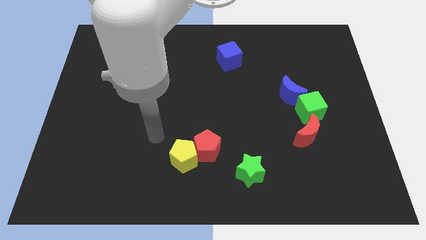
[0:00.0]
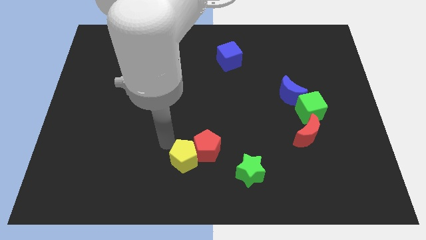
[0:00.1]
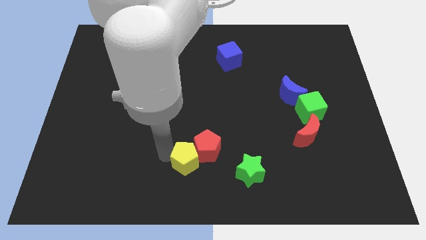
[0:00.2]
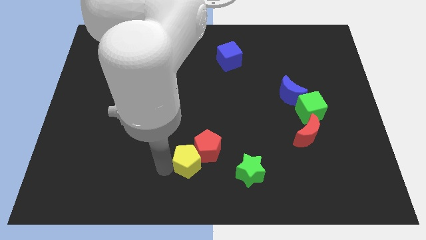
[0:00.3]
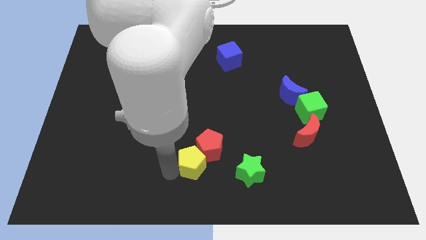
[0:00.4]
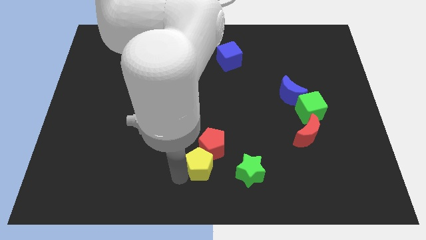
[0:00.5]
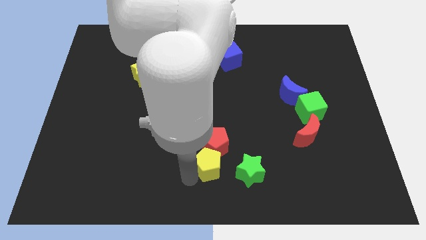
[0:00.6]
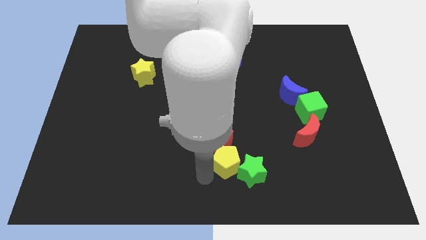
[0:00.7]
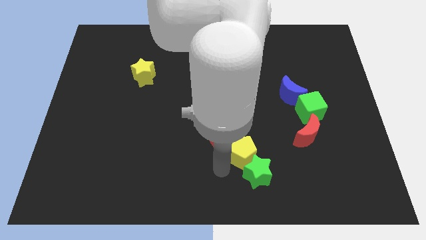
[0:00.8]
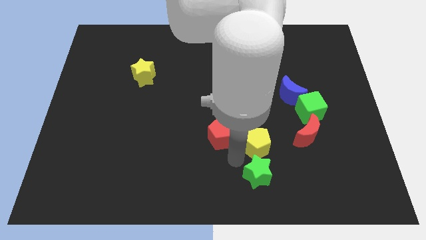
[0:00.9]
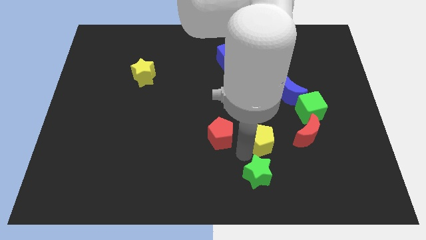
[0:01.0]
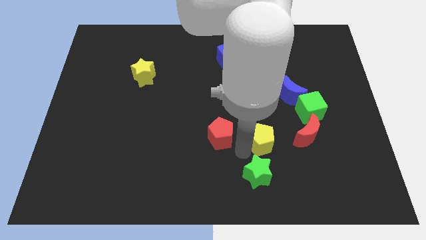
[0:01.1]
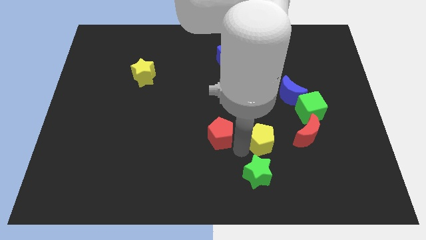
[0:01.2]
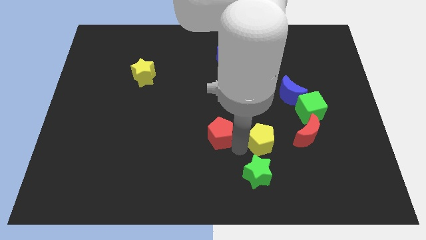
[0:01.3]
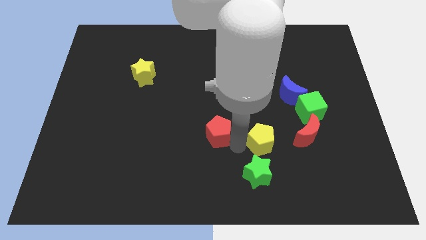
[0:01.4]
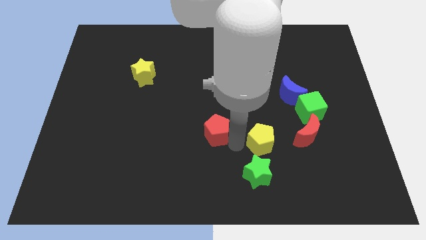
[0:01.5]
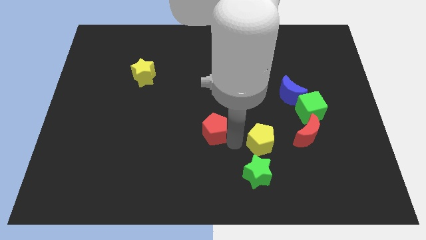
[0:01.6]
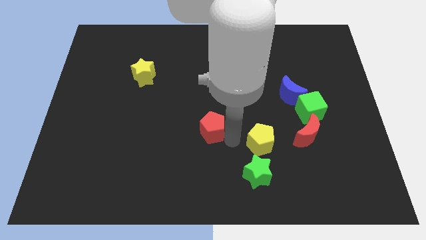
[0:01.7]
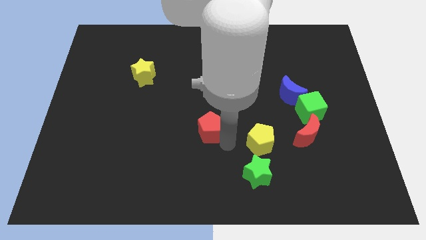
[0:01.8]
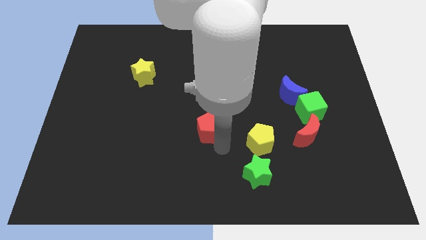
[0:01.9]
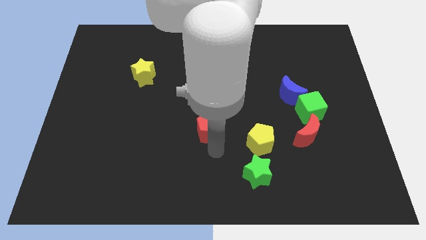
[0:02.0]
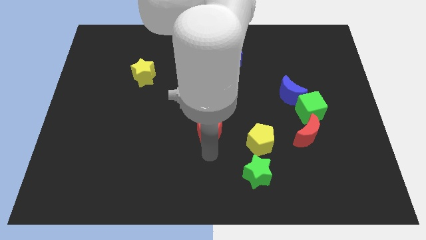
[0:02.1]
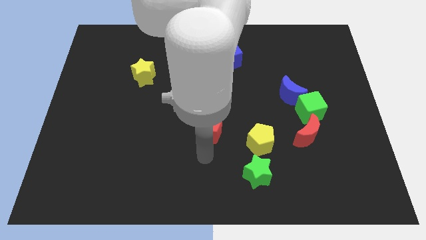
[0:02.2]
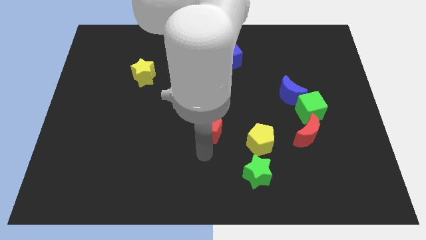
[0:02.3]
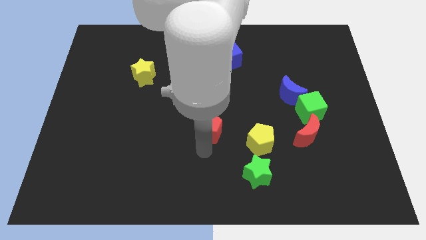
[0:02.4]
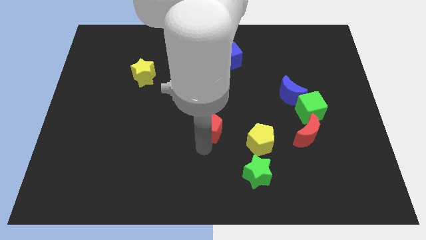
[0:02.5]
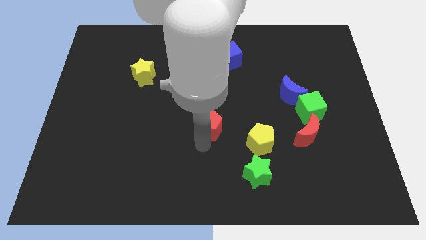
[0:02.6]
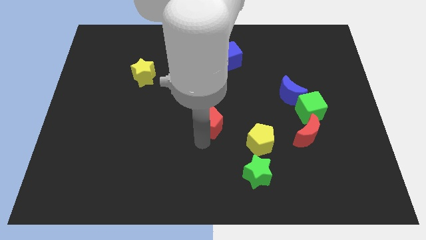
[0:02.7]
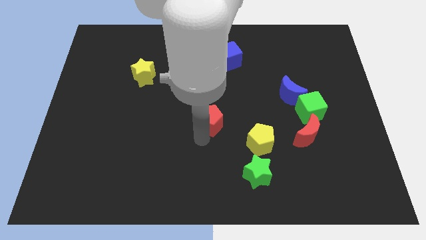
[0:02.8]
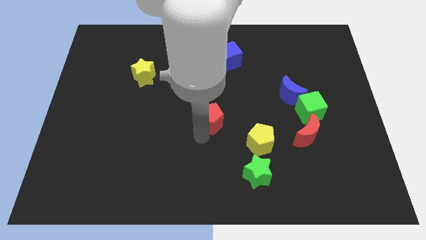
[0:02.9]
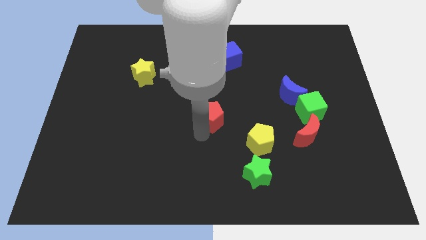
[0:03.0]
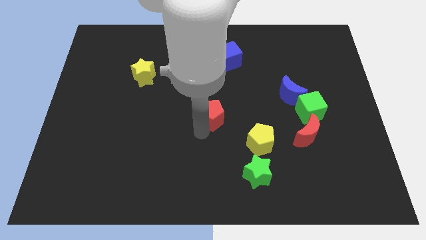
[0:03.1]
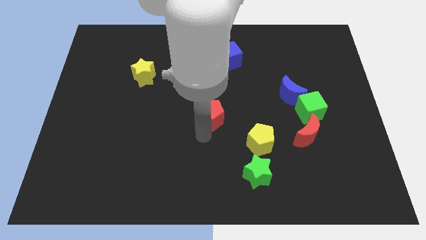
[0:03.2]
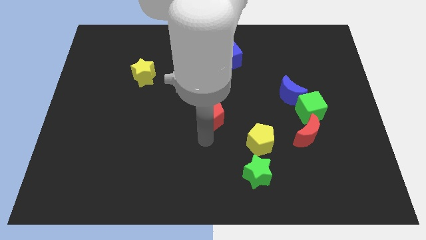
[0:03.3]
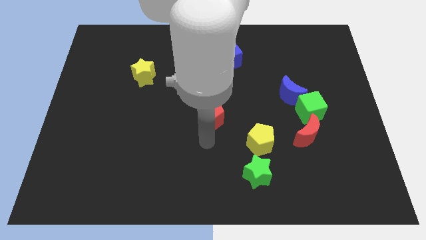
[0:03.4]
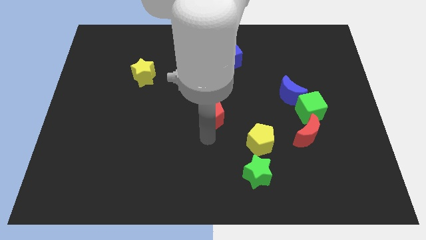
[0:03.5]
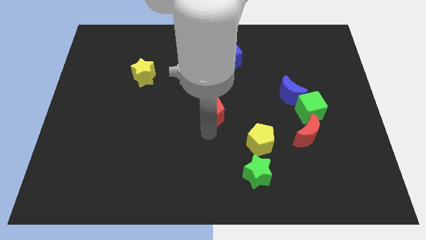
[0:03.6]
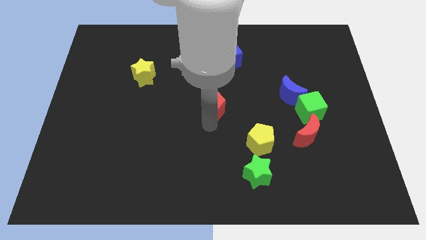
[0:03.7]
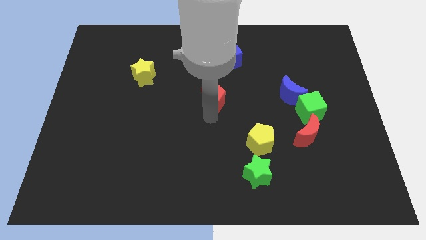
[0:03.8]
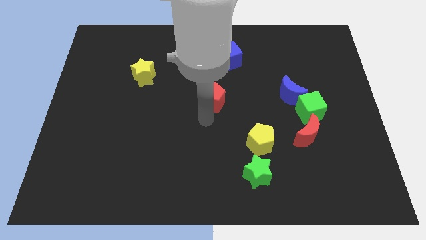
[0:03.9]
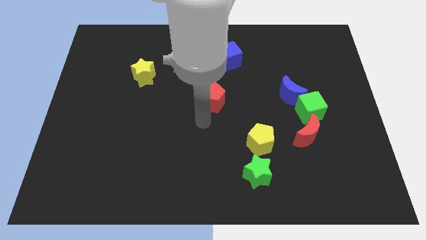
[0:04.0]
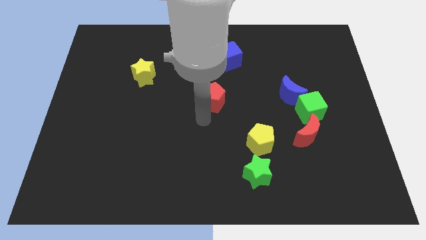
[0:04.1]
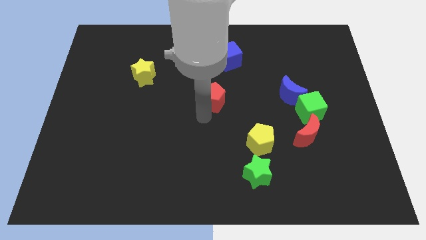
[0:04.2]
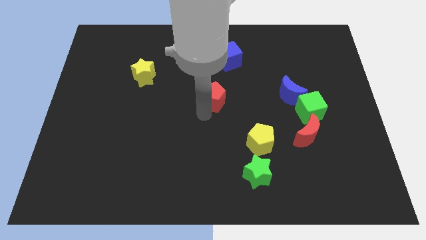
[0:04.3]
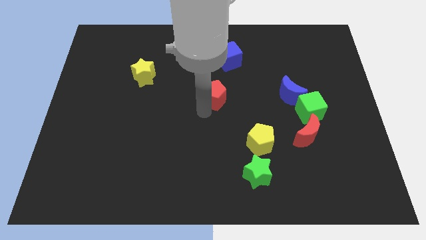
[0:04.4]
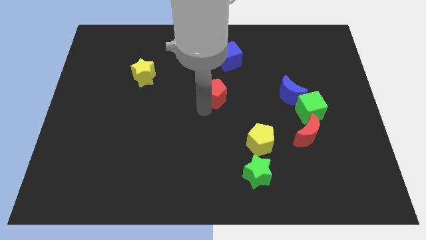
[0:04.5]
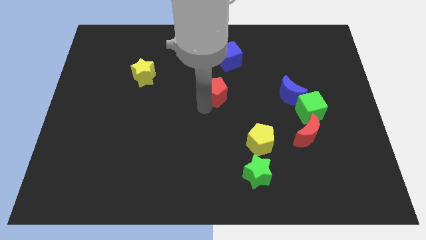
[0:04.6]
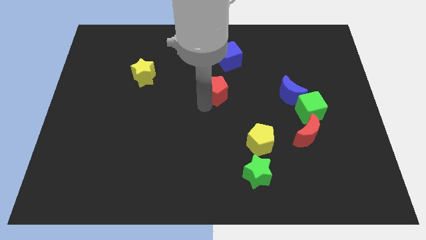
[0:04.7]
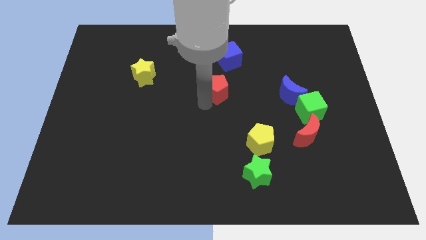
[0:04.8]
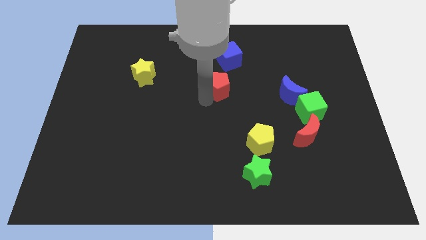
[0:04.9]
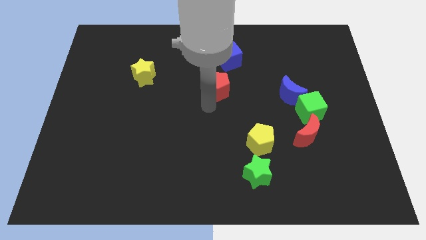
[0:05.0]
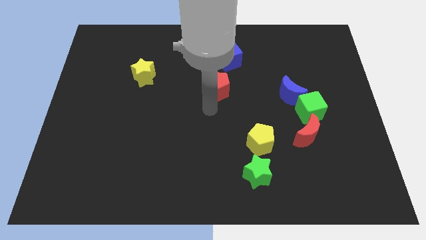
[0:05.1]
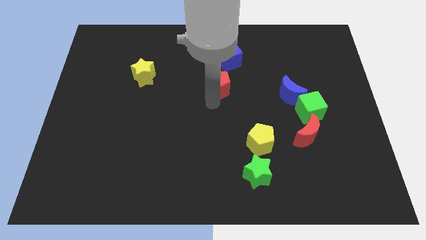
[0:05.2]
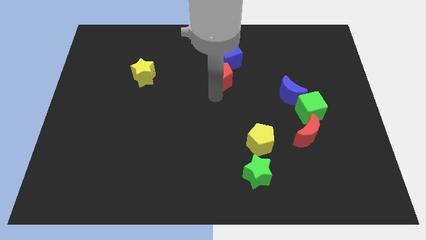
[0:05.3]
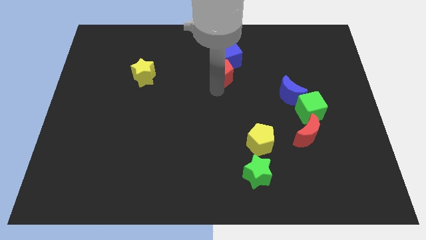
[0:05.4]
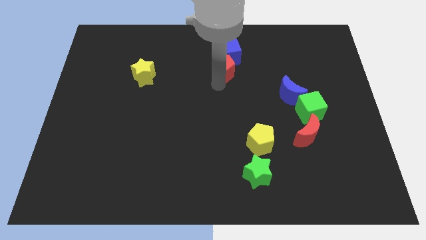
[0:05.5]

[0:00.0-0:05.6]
push the red pentagon close to the blue cube

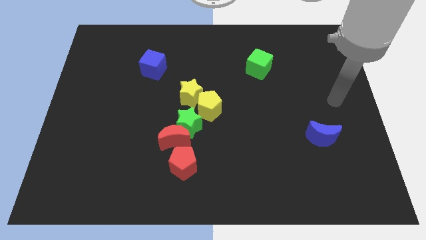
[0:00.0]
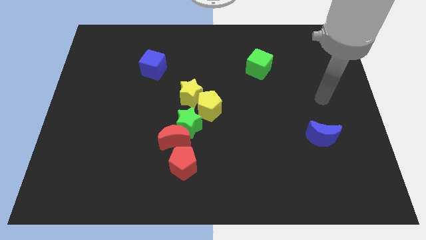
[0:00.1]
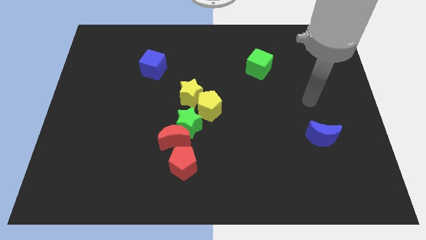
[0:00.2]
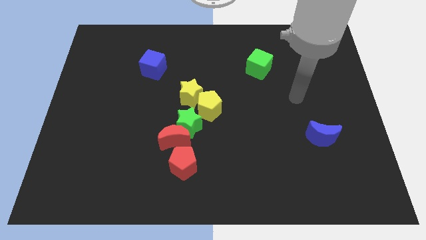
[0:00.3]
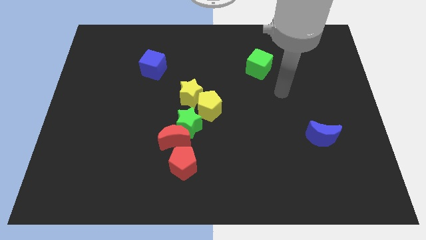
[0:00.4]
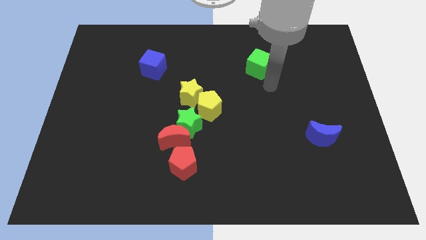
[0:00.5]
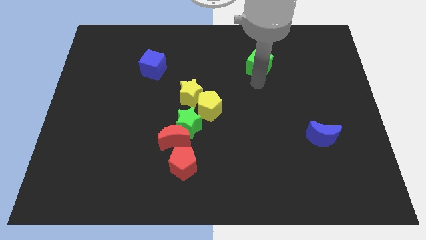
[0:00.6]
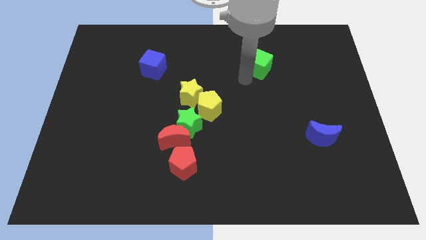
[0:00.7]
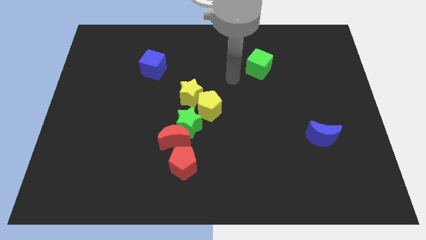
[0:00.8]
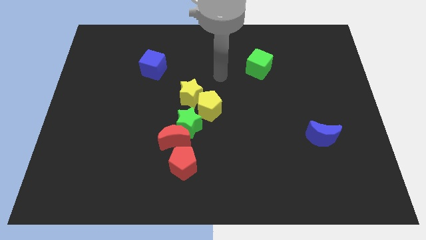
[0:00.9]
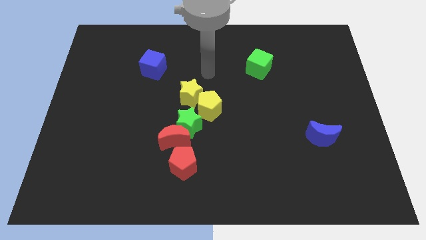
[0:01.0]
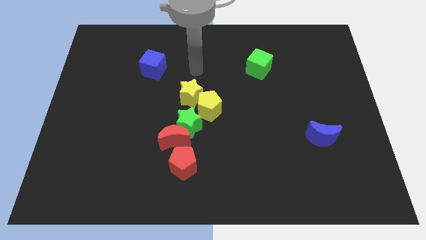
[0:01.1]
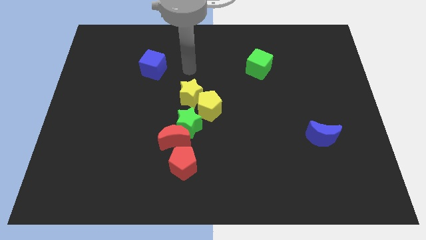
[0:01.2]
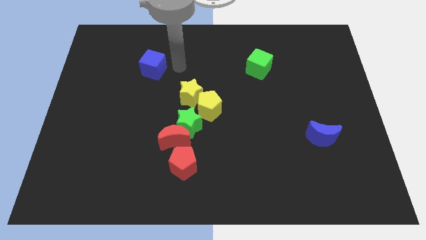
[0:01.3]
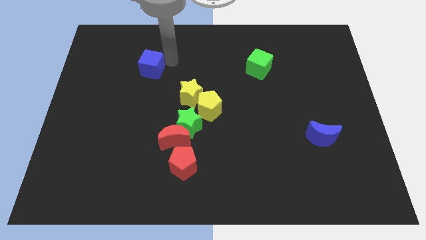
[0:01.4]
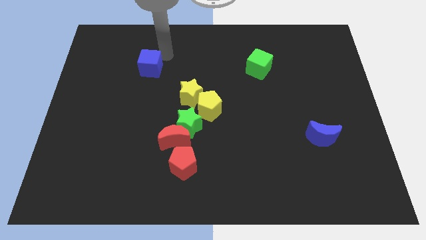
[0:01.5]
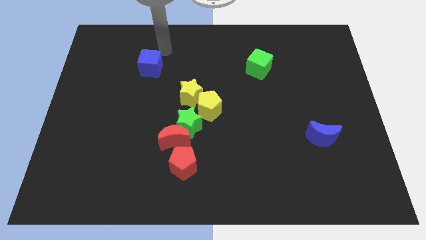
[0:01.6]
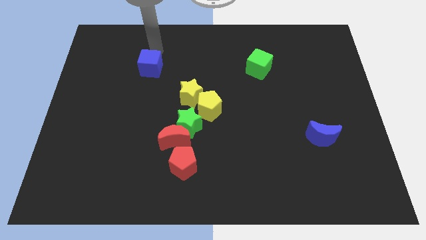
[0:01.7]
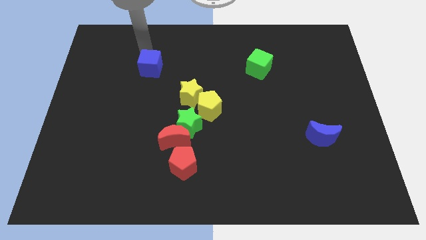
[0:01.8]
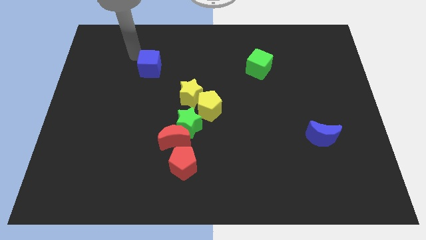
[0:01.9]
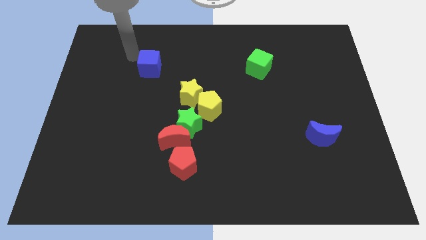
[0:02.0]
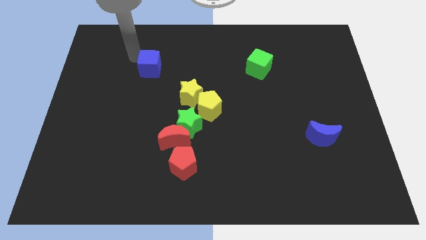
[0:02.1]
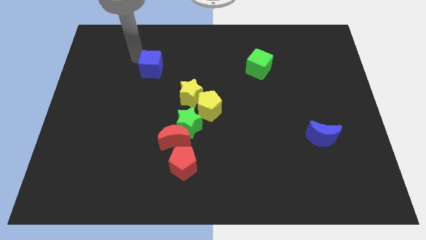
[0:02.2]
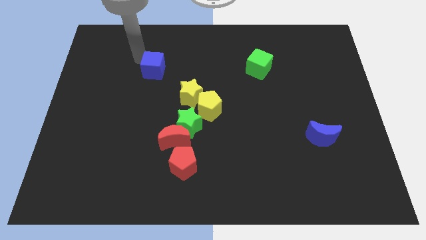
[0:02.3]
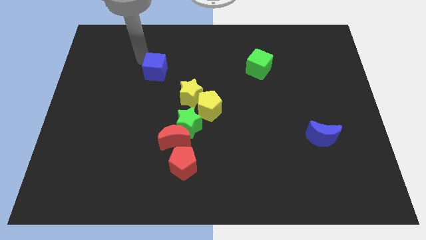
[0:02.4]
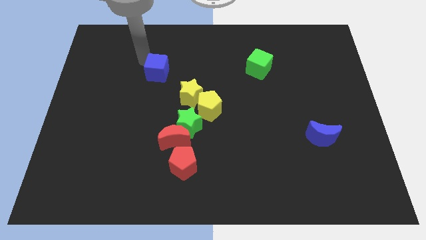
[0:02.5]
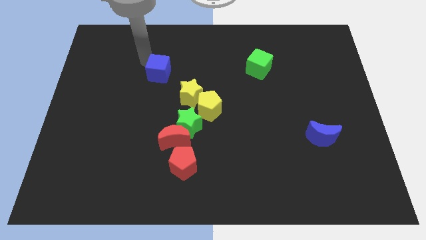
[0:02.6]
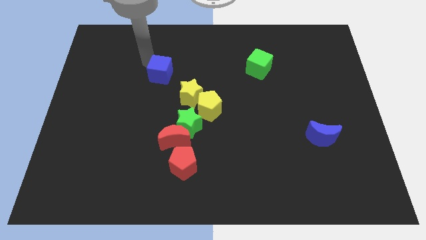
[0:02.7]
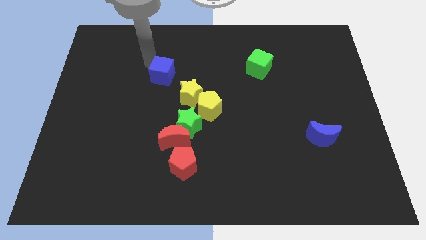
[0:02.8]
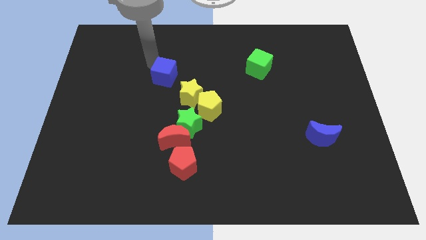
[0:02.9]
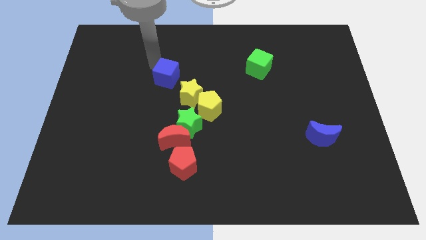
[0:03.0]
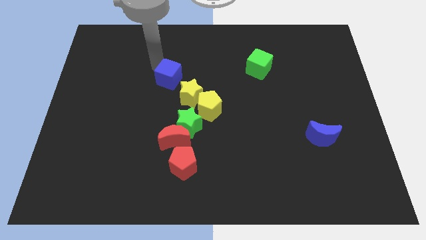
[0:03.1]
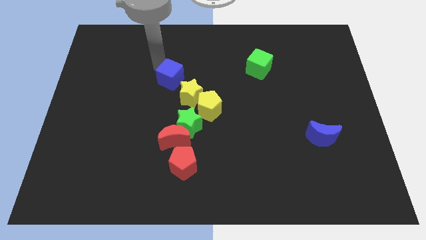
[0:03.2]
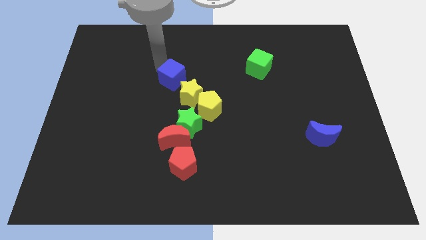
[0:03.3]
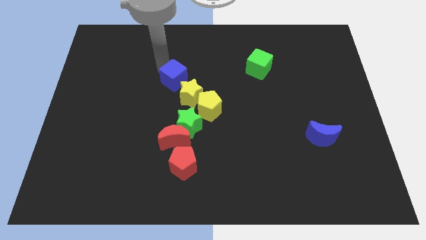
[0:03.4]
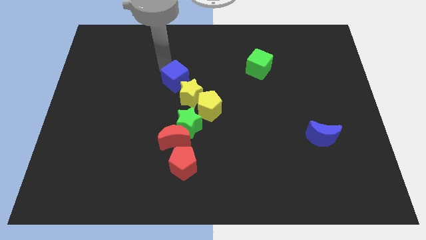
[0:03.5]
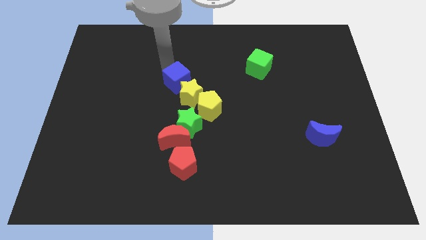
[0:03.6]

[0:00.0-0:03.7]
put the blue cube to the yellow star
